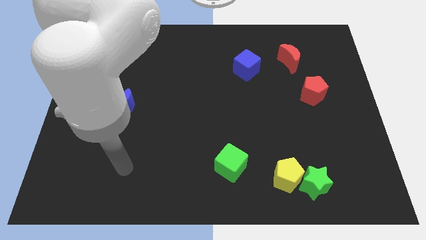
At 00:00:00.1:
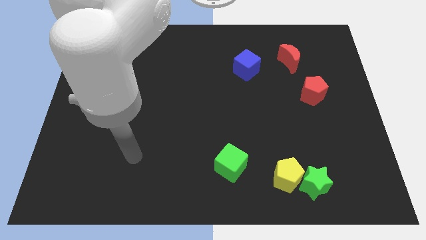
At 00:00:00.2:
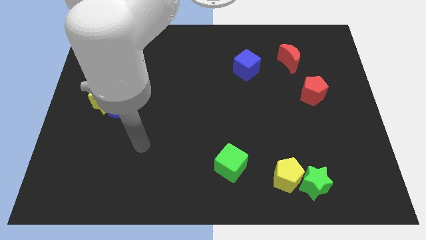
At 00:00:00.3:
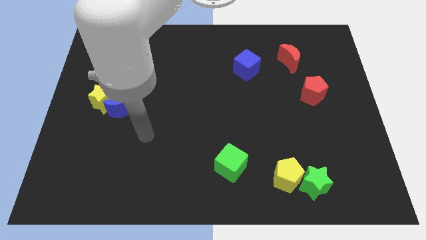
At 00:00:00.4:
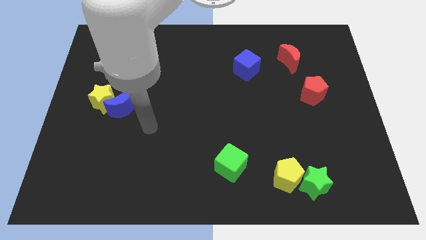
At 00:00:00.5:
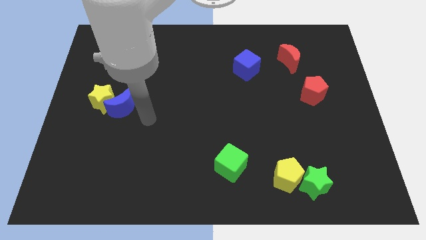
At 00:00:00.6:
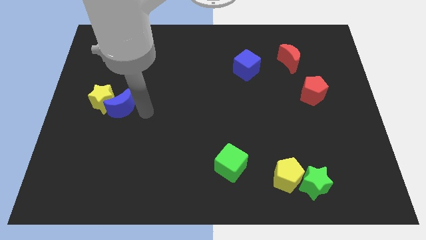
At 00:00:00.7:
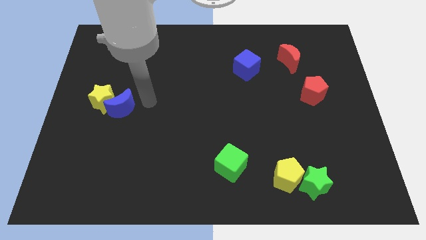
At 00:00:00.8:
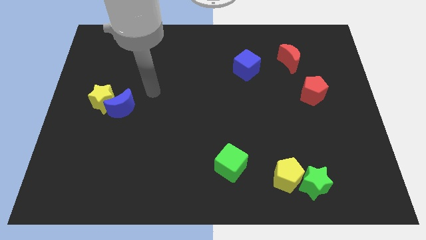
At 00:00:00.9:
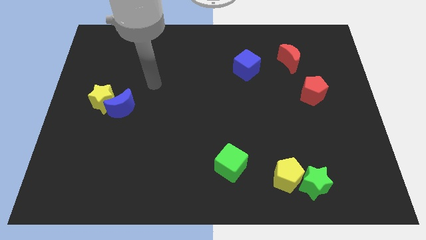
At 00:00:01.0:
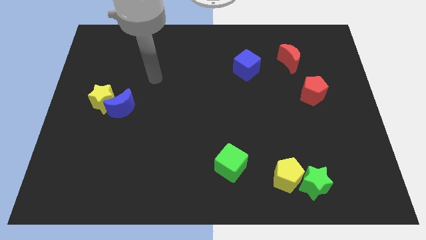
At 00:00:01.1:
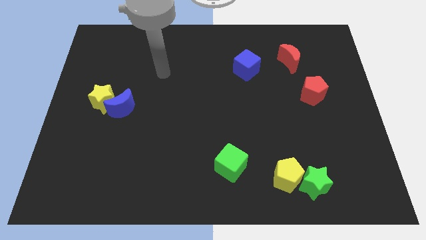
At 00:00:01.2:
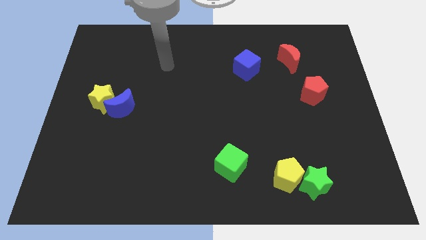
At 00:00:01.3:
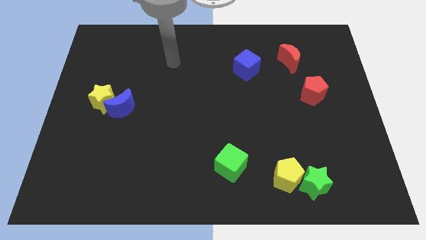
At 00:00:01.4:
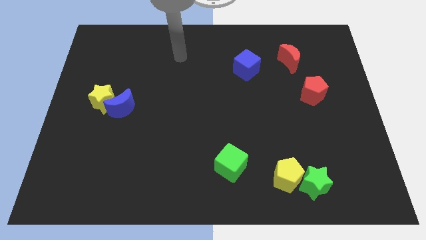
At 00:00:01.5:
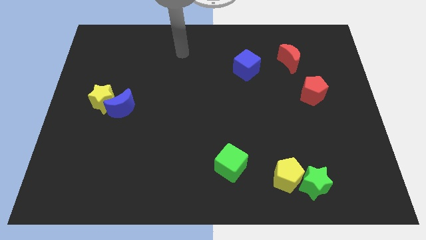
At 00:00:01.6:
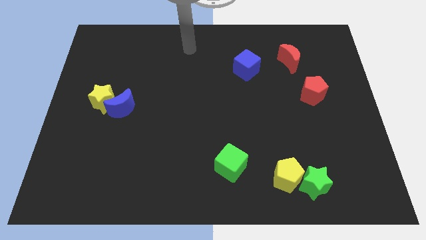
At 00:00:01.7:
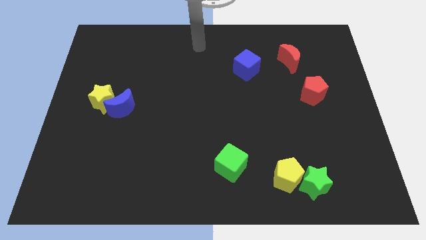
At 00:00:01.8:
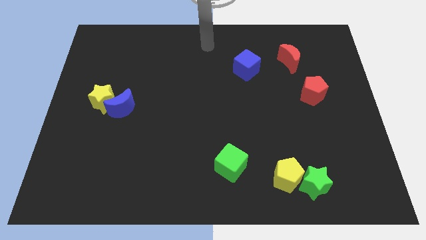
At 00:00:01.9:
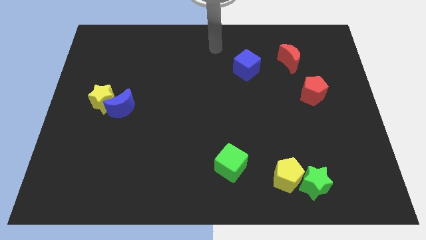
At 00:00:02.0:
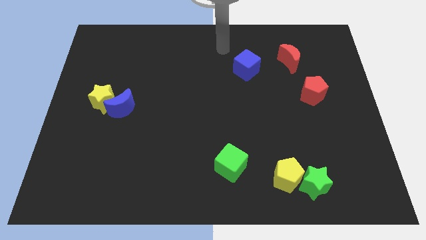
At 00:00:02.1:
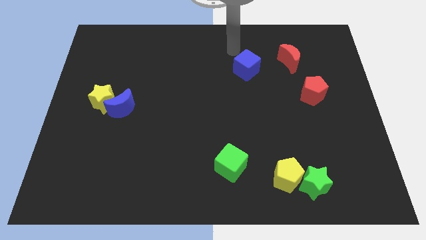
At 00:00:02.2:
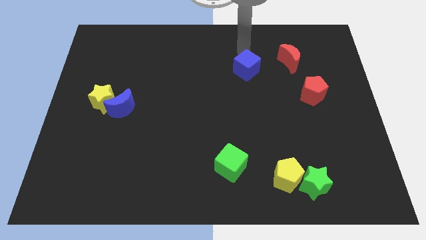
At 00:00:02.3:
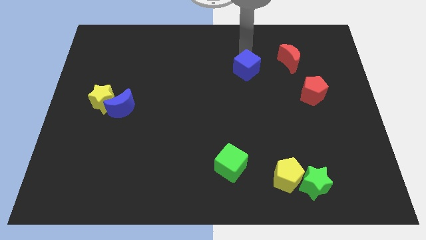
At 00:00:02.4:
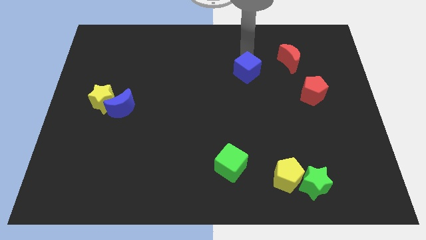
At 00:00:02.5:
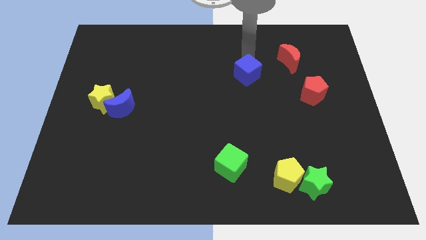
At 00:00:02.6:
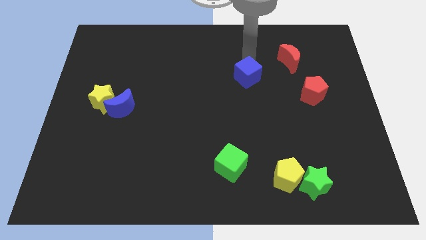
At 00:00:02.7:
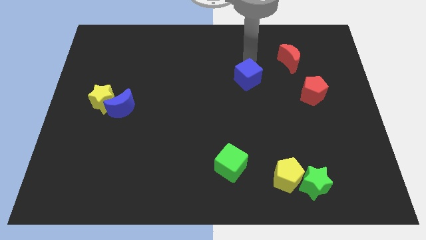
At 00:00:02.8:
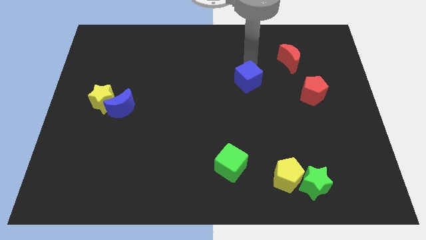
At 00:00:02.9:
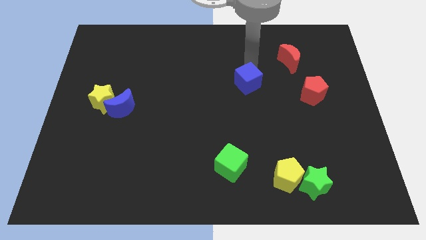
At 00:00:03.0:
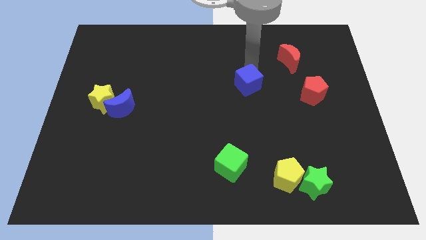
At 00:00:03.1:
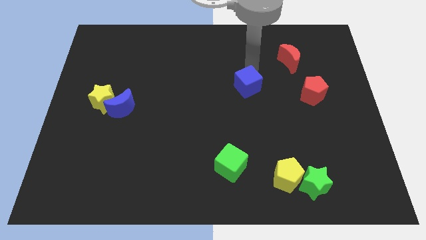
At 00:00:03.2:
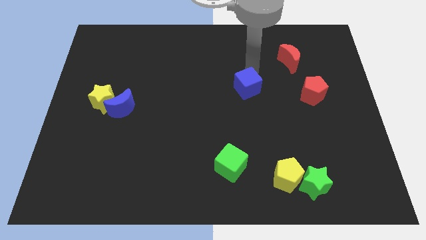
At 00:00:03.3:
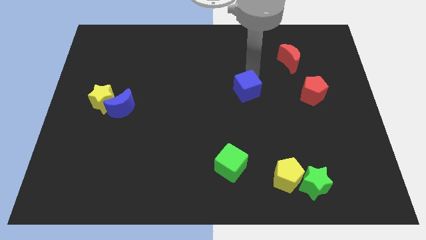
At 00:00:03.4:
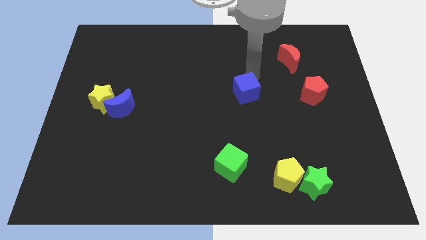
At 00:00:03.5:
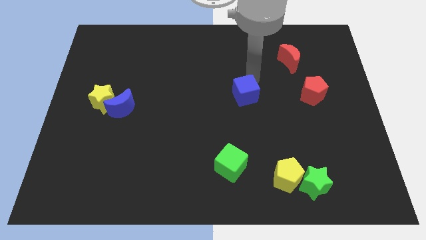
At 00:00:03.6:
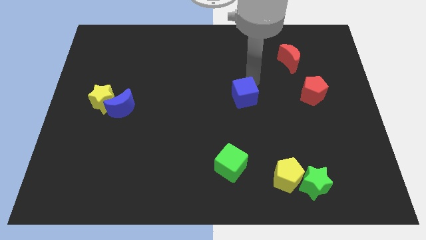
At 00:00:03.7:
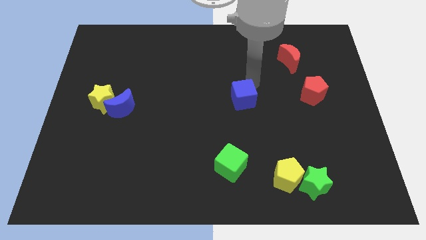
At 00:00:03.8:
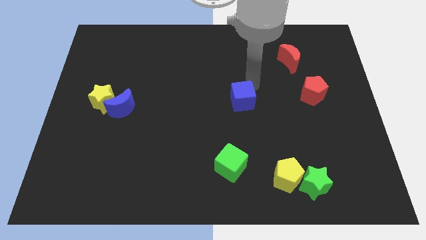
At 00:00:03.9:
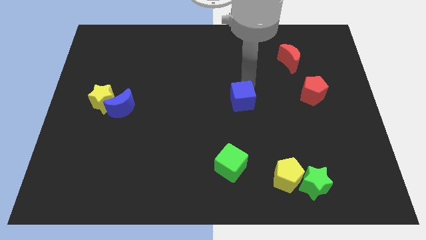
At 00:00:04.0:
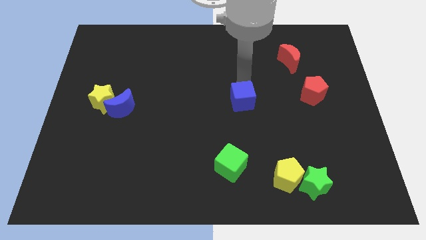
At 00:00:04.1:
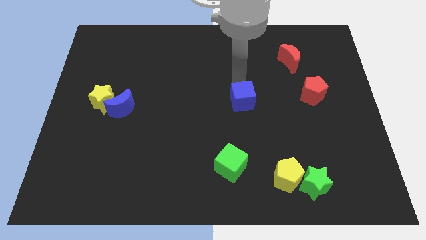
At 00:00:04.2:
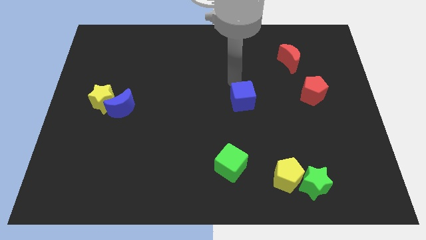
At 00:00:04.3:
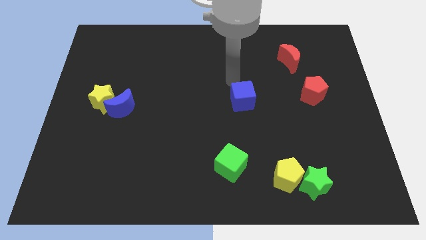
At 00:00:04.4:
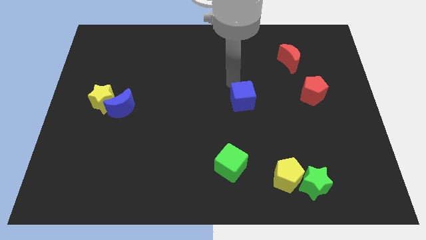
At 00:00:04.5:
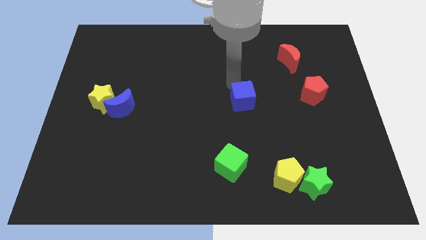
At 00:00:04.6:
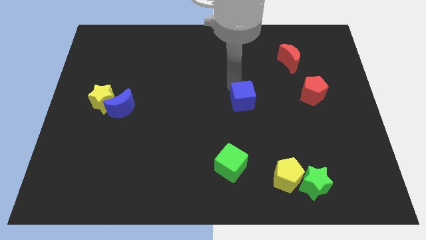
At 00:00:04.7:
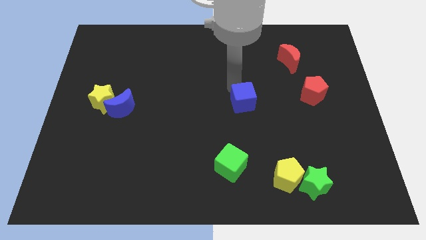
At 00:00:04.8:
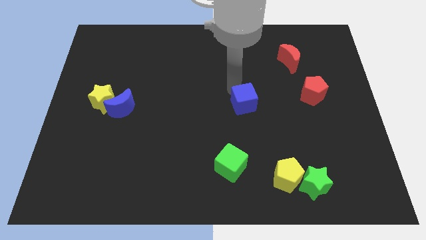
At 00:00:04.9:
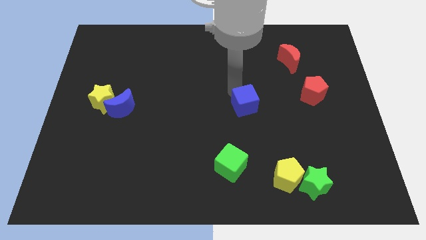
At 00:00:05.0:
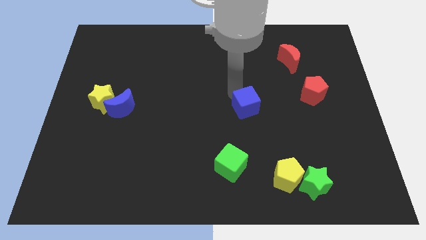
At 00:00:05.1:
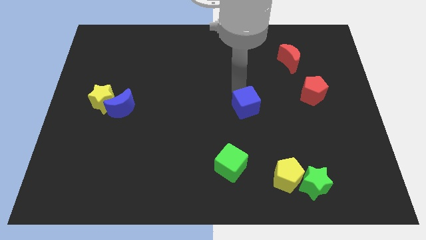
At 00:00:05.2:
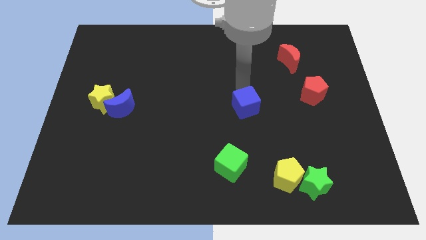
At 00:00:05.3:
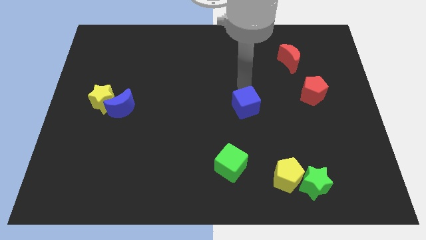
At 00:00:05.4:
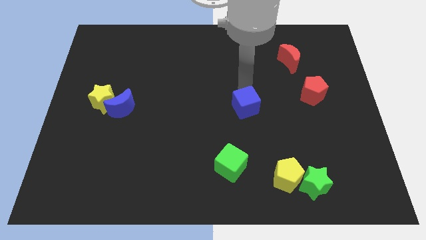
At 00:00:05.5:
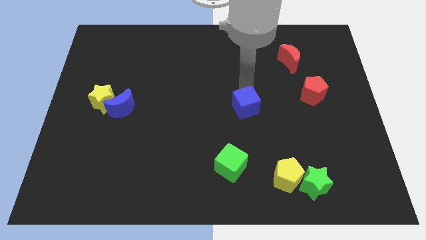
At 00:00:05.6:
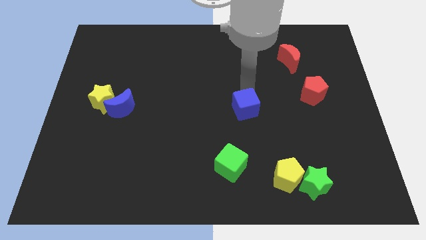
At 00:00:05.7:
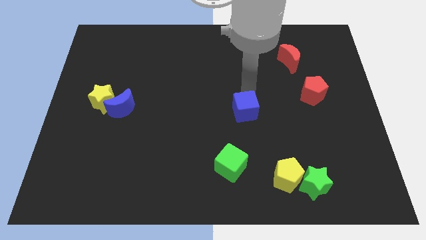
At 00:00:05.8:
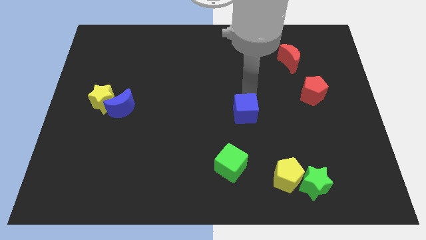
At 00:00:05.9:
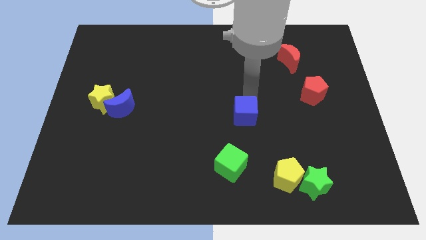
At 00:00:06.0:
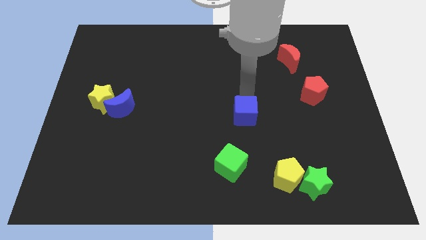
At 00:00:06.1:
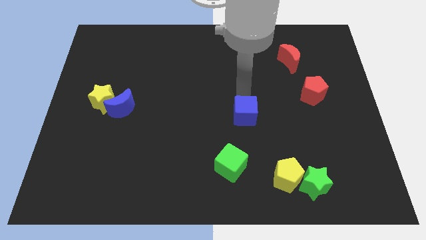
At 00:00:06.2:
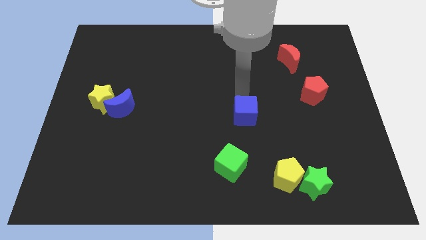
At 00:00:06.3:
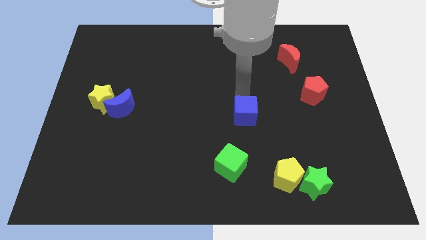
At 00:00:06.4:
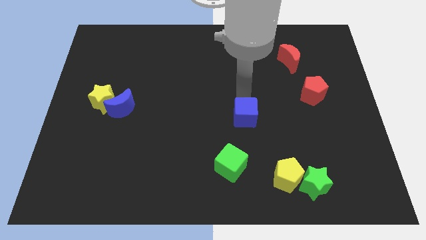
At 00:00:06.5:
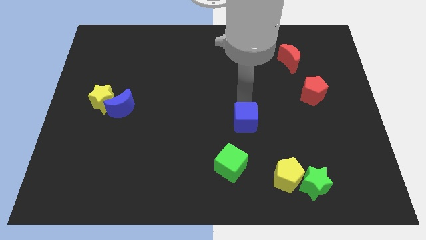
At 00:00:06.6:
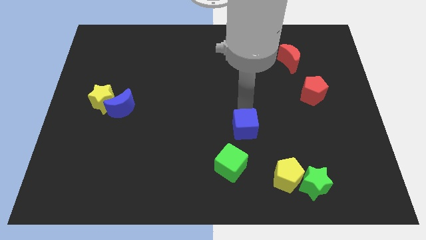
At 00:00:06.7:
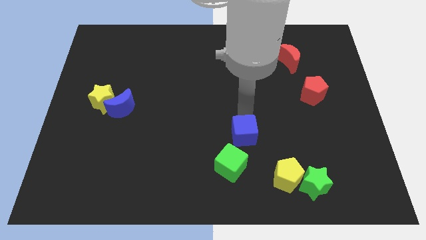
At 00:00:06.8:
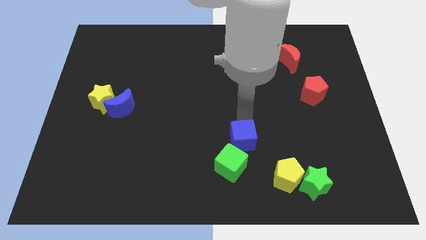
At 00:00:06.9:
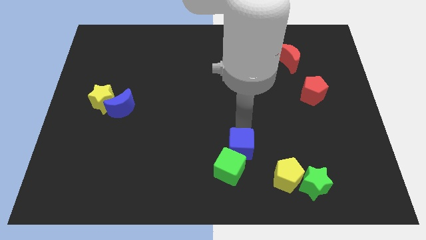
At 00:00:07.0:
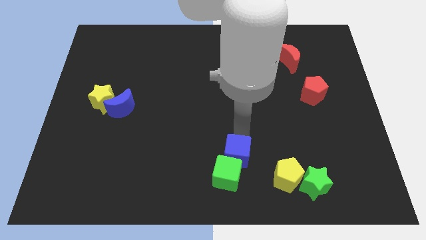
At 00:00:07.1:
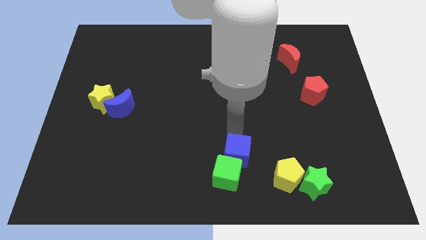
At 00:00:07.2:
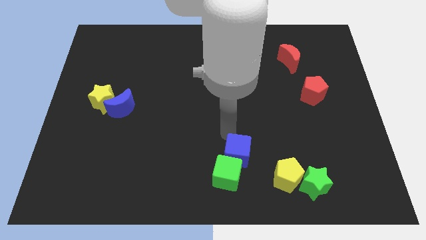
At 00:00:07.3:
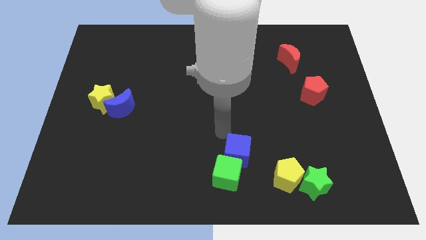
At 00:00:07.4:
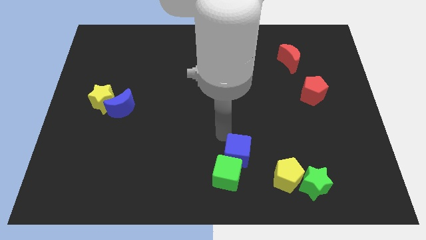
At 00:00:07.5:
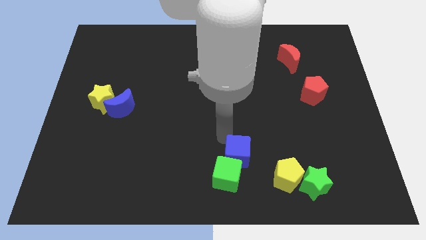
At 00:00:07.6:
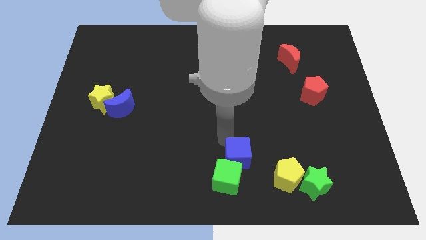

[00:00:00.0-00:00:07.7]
push the blue cube to the bottom side
